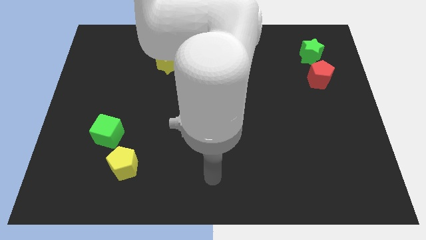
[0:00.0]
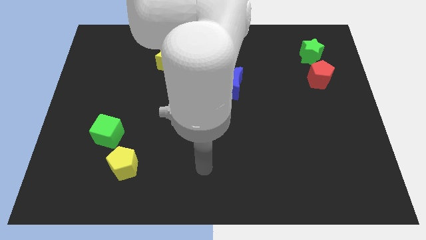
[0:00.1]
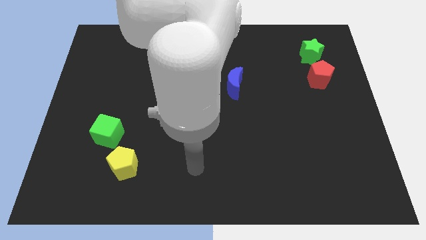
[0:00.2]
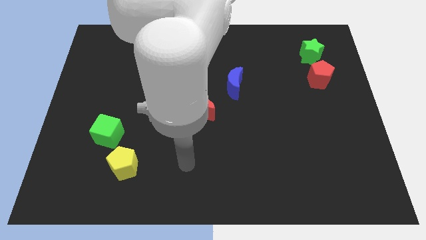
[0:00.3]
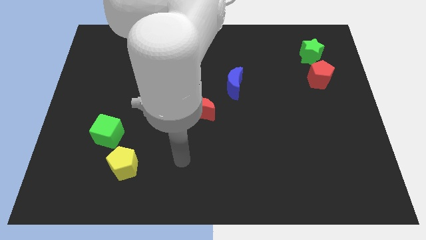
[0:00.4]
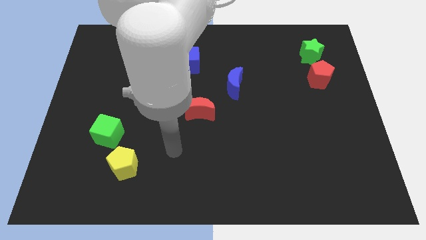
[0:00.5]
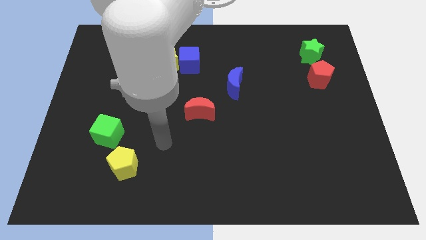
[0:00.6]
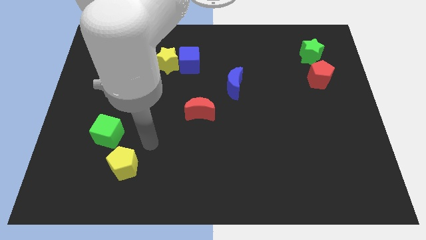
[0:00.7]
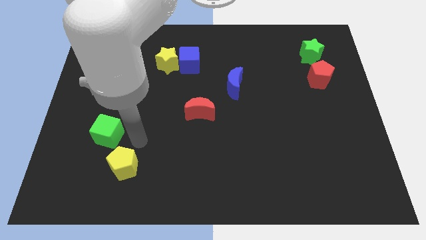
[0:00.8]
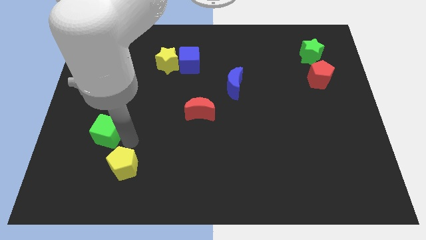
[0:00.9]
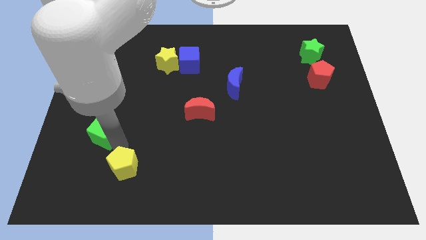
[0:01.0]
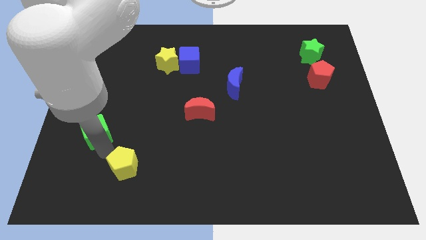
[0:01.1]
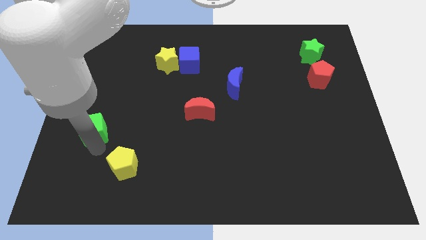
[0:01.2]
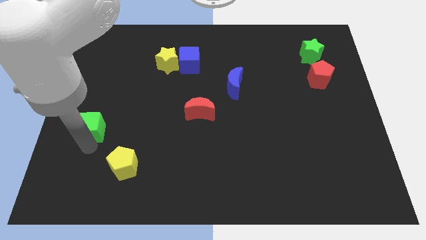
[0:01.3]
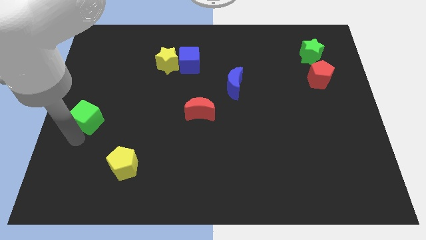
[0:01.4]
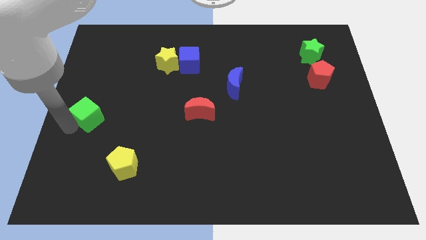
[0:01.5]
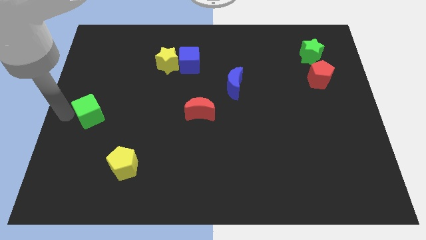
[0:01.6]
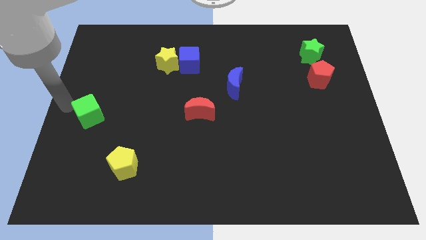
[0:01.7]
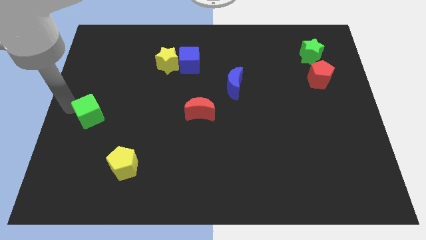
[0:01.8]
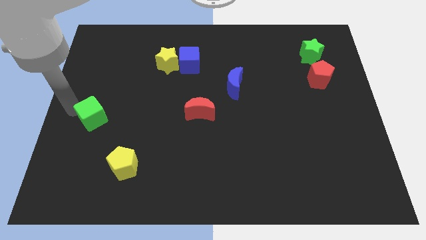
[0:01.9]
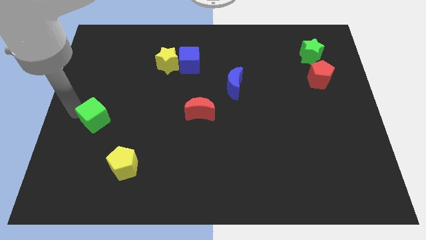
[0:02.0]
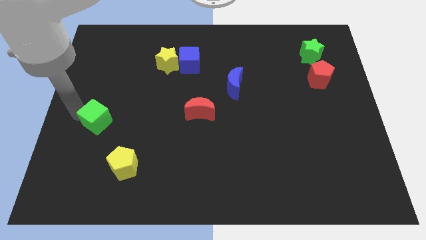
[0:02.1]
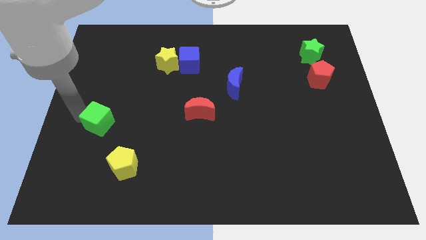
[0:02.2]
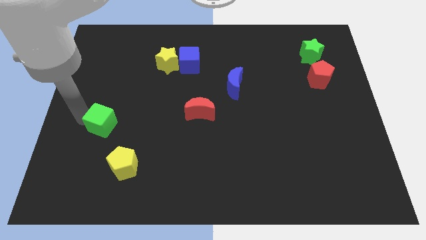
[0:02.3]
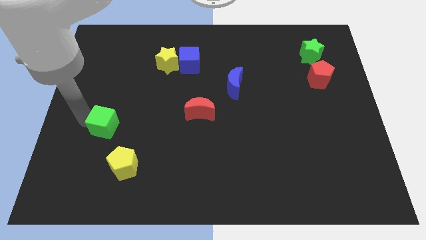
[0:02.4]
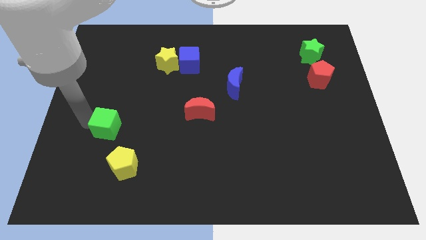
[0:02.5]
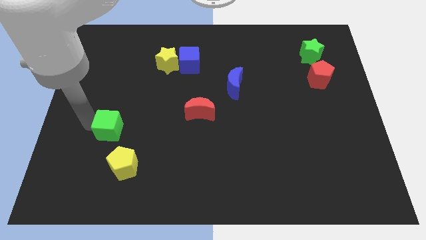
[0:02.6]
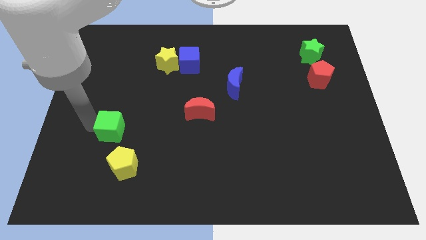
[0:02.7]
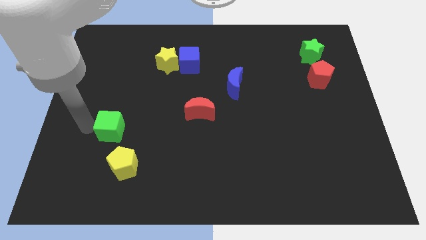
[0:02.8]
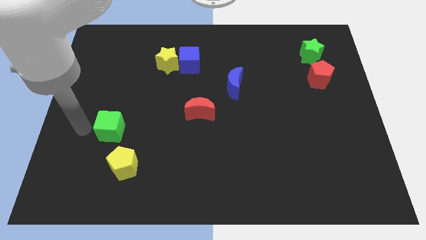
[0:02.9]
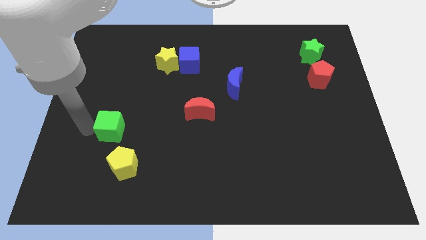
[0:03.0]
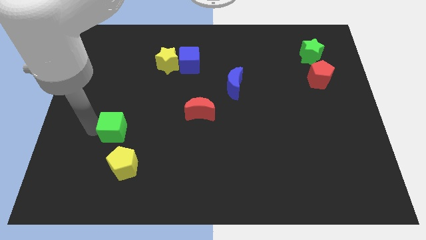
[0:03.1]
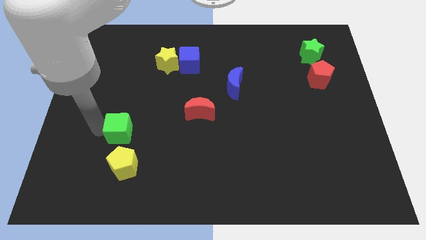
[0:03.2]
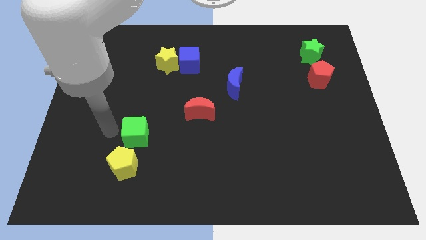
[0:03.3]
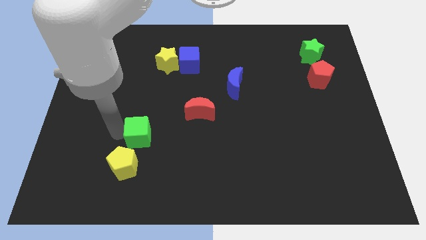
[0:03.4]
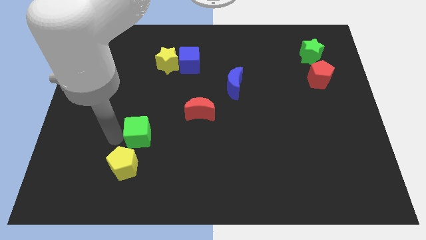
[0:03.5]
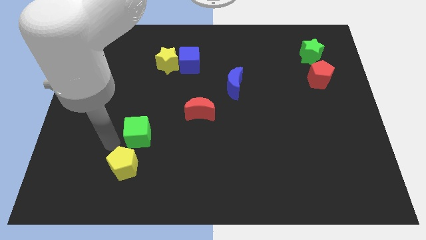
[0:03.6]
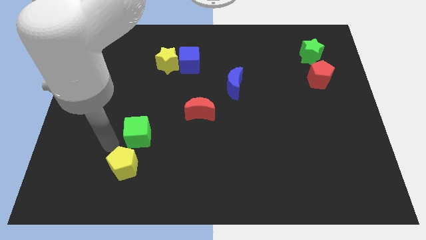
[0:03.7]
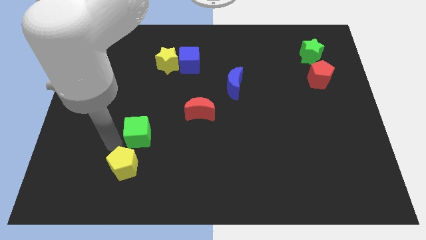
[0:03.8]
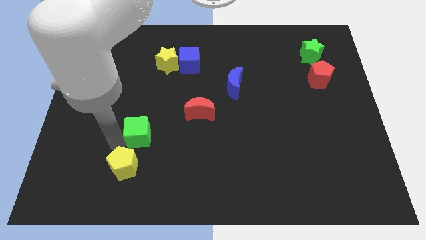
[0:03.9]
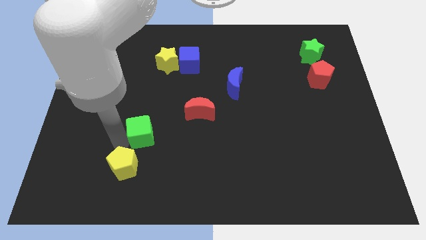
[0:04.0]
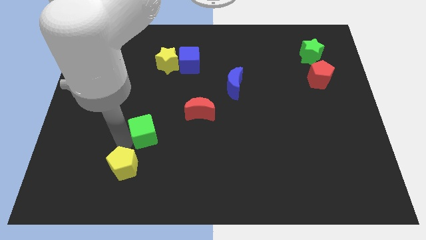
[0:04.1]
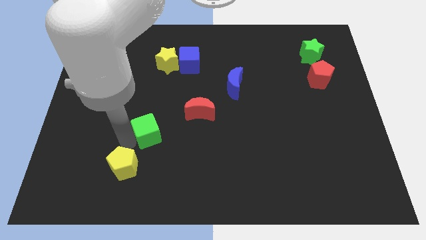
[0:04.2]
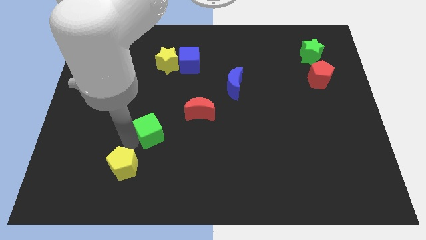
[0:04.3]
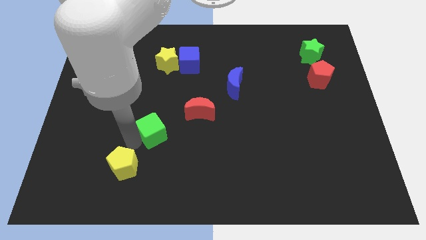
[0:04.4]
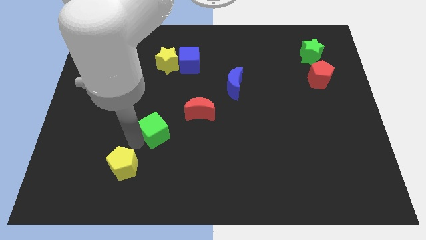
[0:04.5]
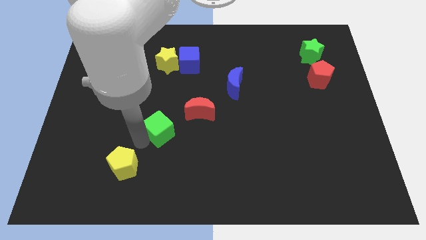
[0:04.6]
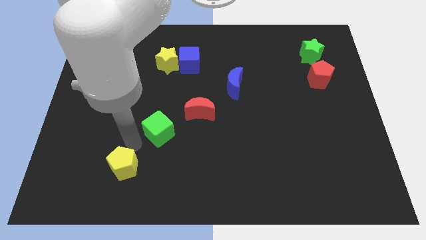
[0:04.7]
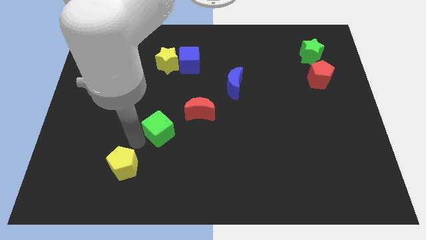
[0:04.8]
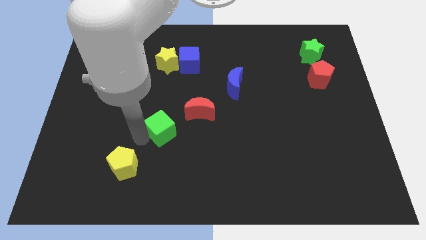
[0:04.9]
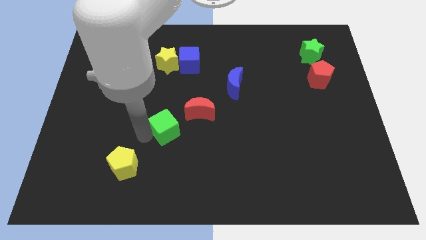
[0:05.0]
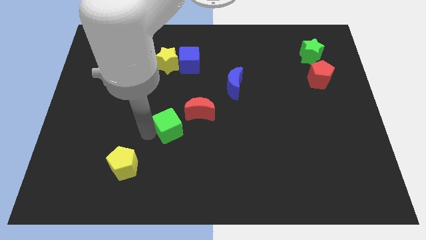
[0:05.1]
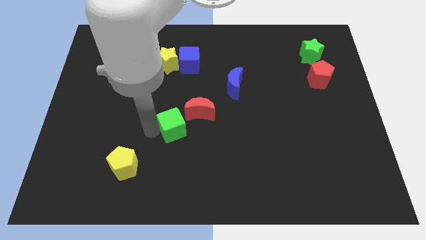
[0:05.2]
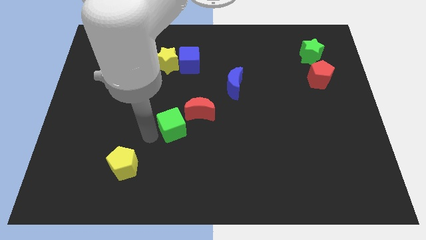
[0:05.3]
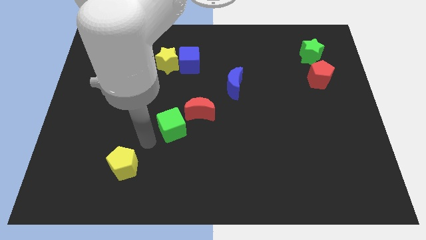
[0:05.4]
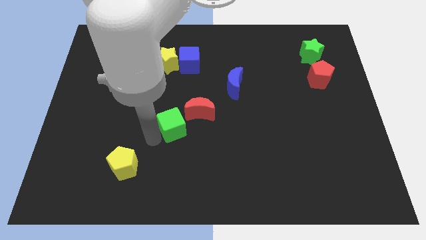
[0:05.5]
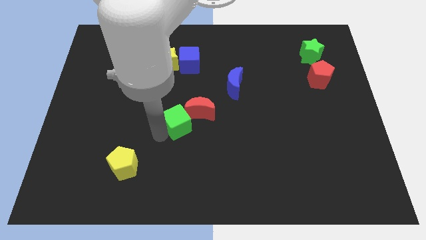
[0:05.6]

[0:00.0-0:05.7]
push the green cube next to the red moon
